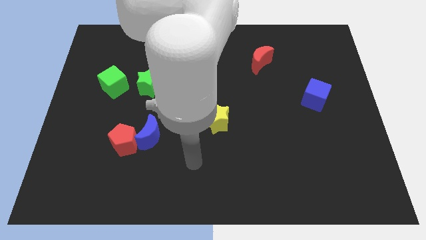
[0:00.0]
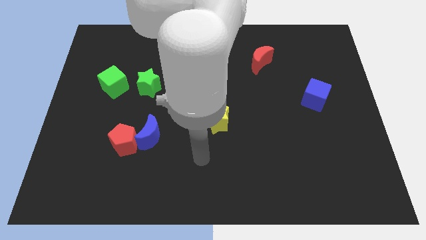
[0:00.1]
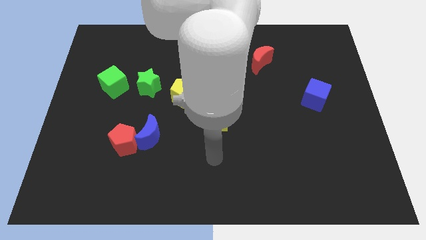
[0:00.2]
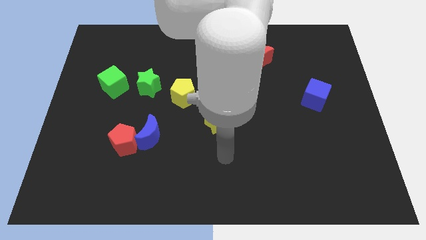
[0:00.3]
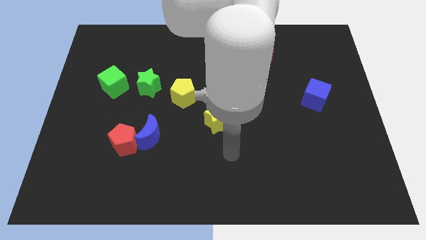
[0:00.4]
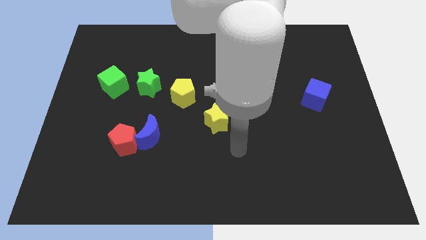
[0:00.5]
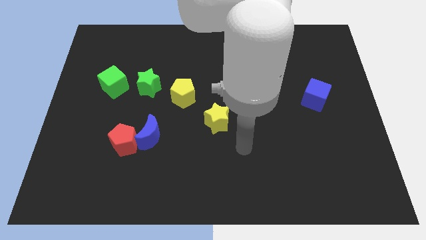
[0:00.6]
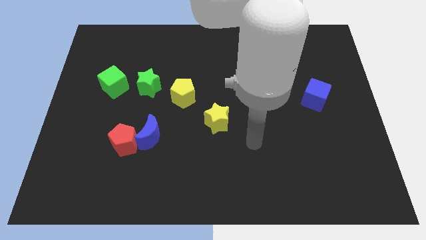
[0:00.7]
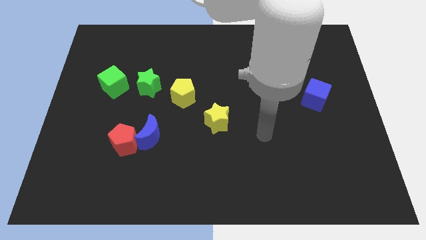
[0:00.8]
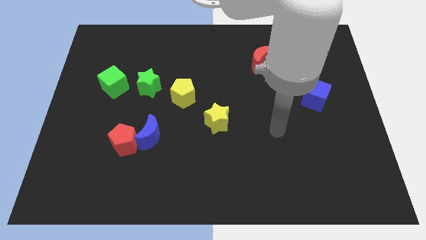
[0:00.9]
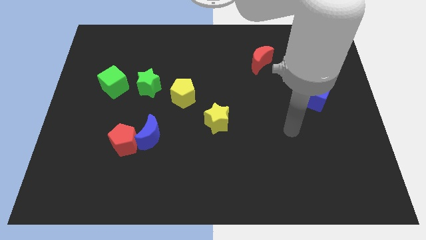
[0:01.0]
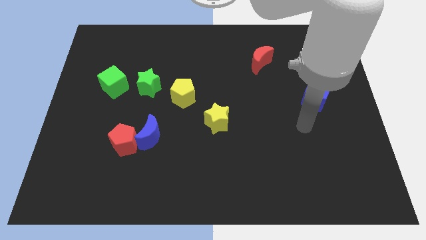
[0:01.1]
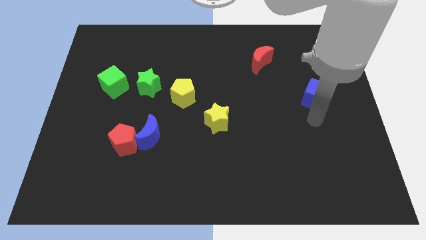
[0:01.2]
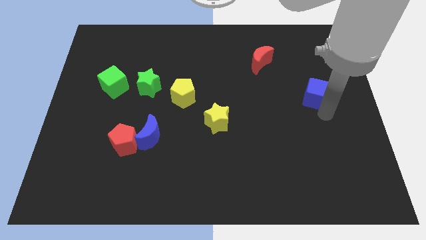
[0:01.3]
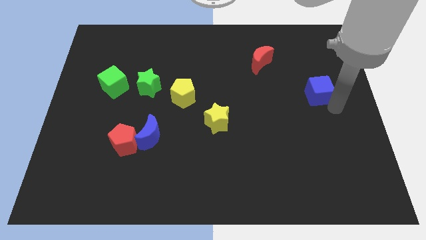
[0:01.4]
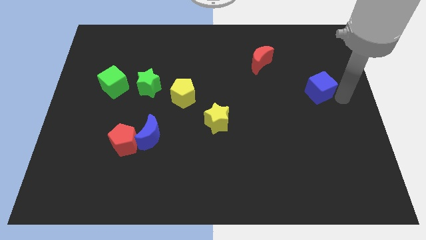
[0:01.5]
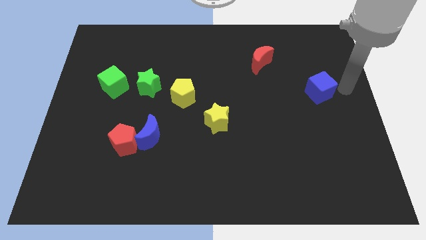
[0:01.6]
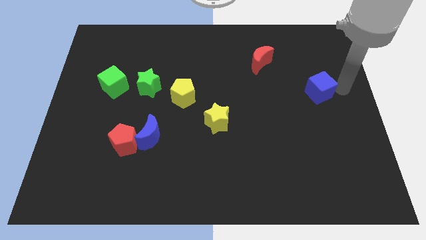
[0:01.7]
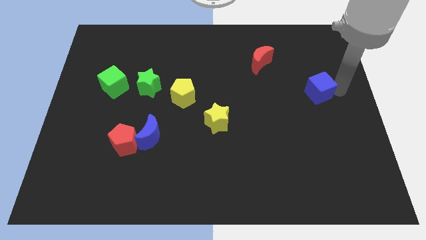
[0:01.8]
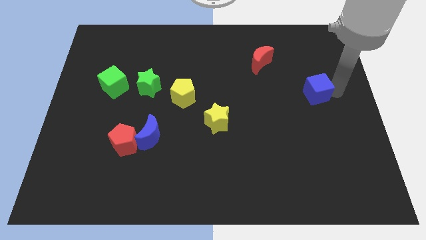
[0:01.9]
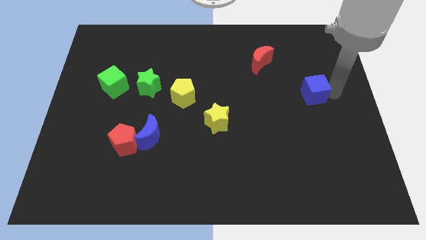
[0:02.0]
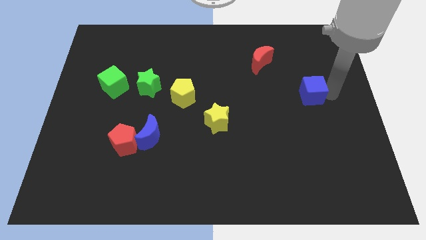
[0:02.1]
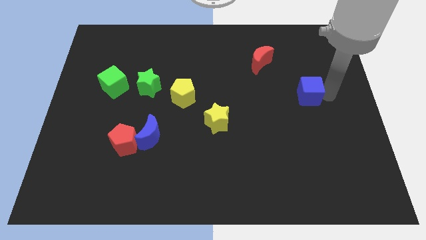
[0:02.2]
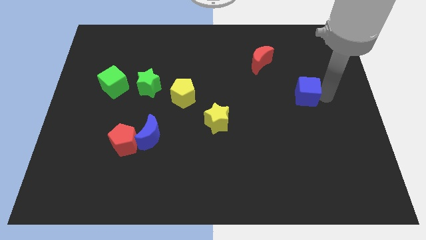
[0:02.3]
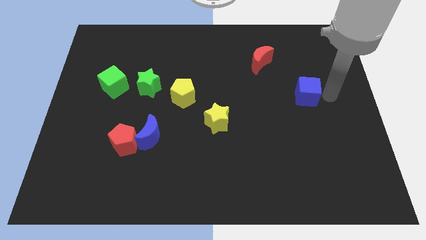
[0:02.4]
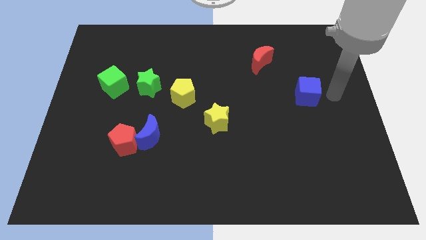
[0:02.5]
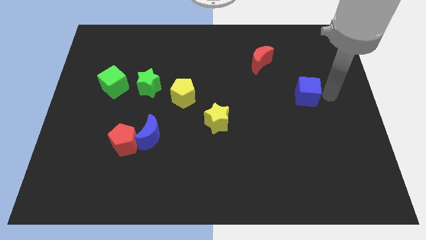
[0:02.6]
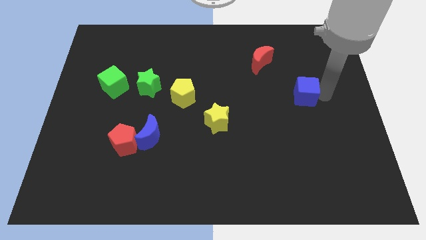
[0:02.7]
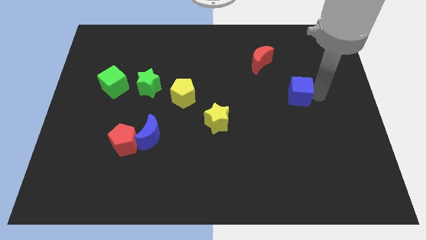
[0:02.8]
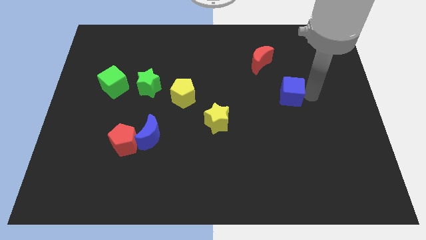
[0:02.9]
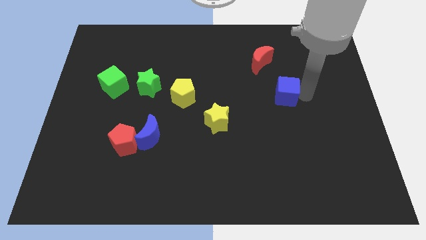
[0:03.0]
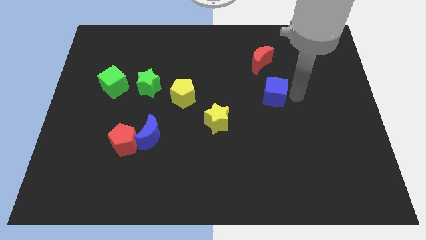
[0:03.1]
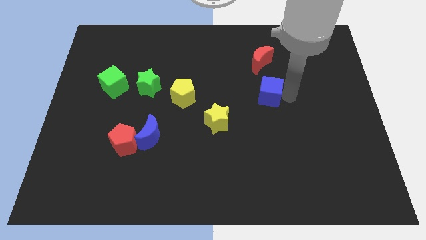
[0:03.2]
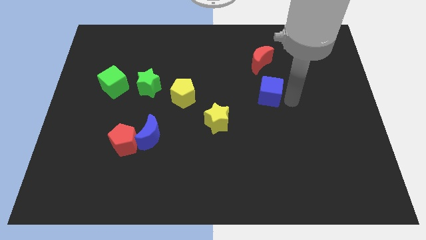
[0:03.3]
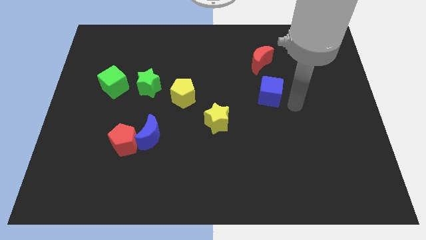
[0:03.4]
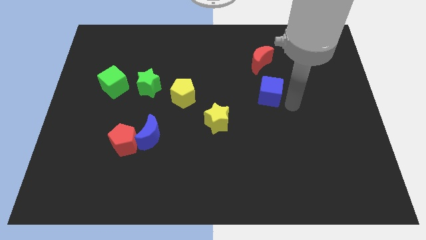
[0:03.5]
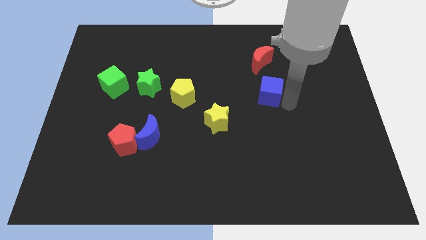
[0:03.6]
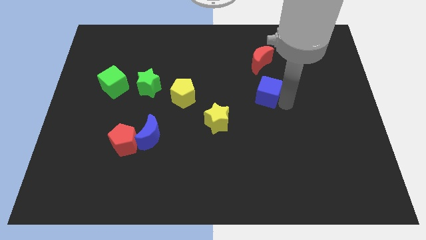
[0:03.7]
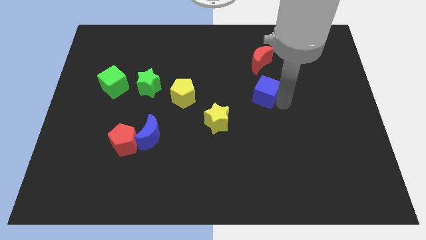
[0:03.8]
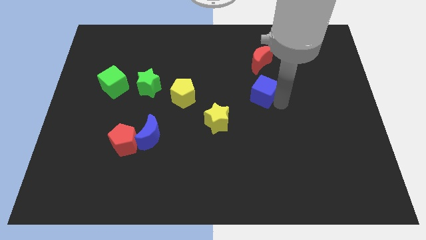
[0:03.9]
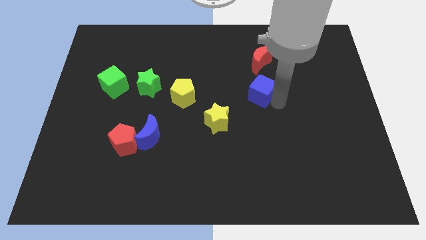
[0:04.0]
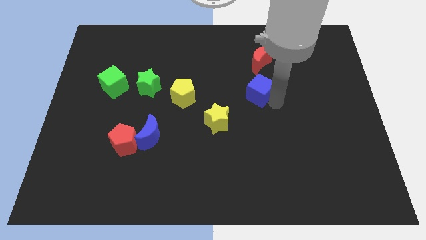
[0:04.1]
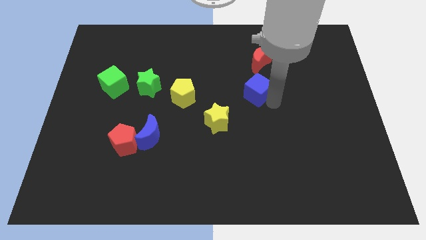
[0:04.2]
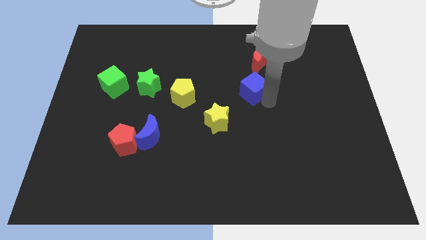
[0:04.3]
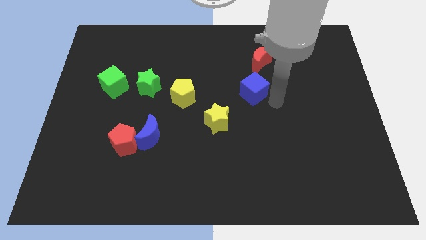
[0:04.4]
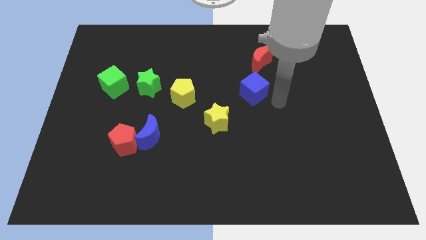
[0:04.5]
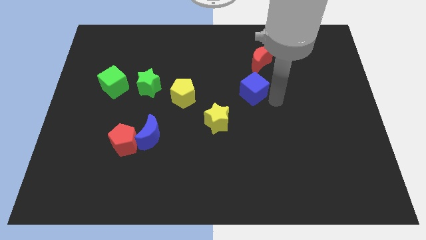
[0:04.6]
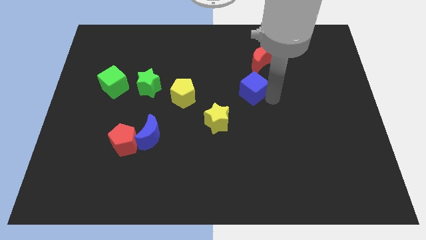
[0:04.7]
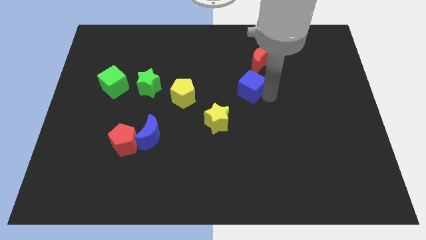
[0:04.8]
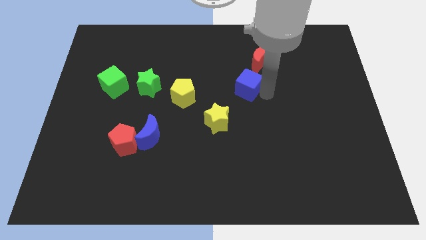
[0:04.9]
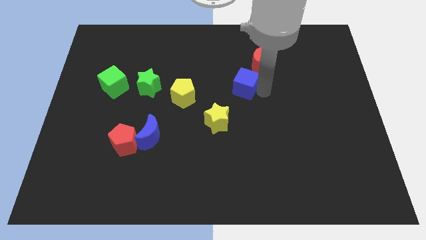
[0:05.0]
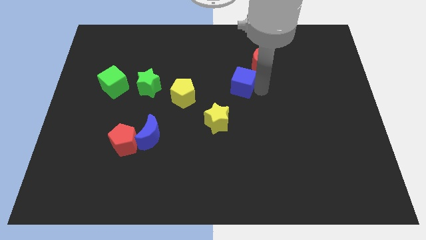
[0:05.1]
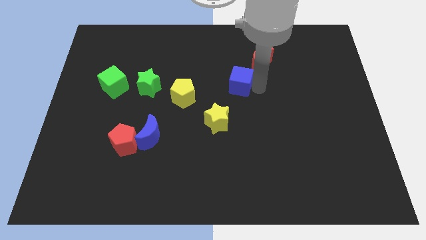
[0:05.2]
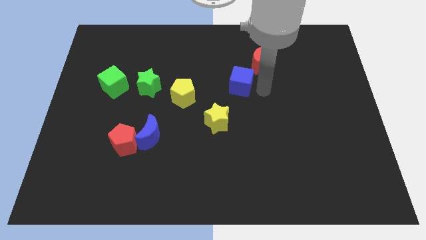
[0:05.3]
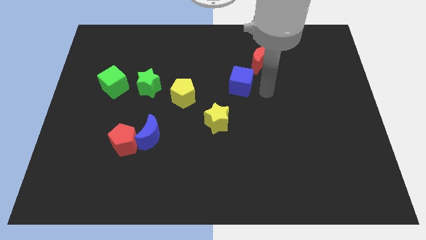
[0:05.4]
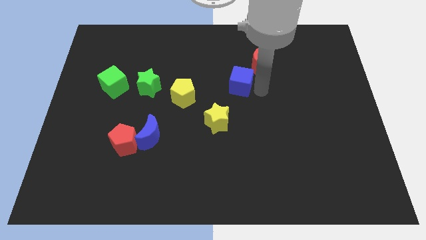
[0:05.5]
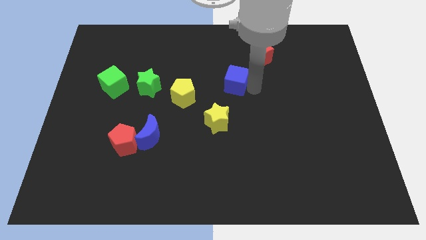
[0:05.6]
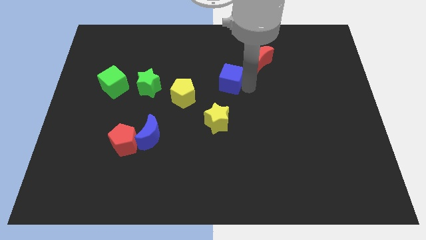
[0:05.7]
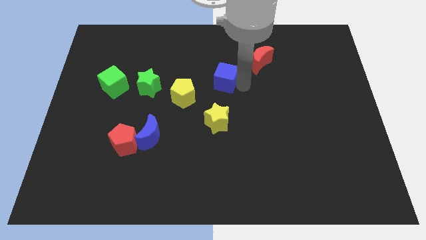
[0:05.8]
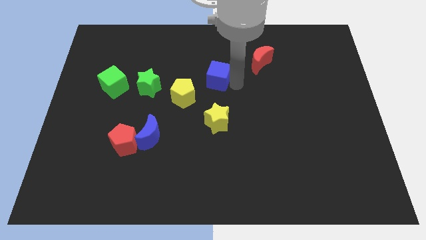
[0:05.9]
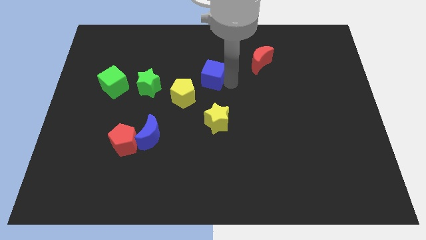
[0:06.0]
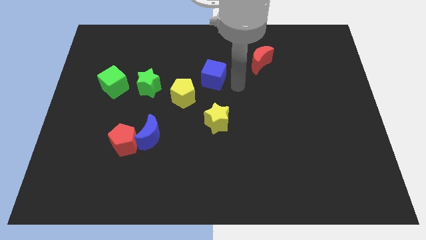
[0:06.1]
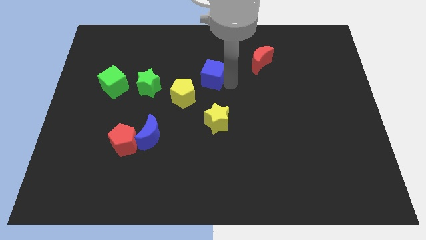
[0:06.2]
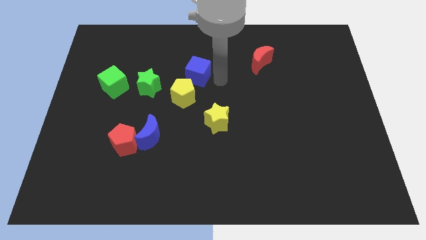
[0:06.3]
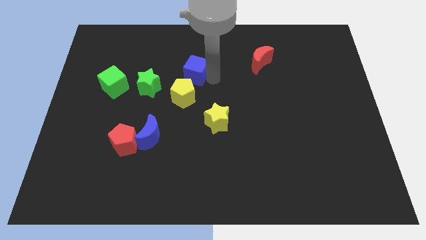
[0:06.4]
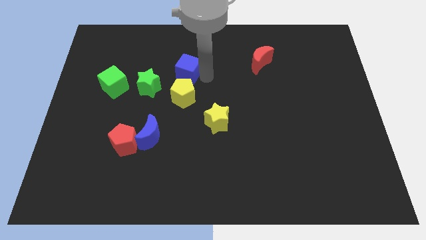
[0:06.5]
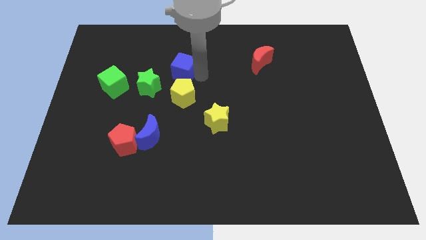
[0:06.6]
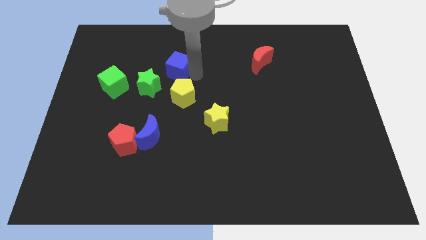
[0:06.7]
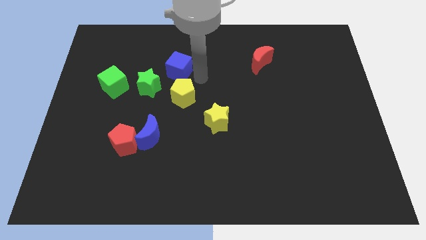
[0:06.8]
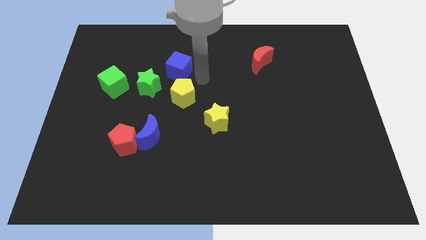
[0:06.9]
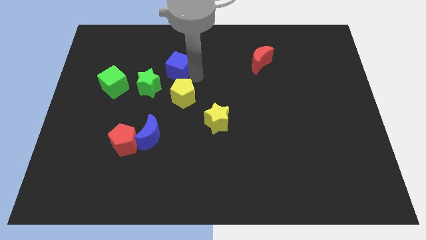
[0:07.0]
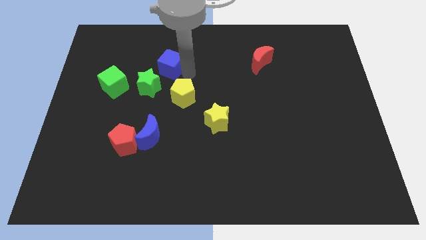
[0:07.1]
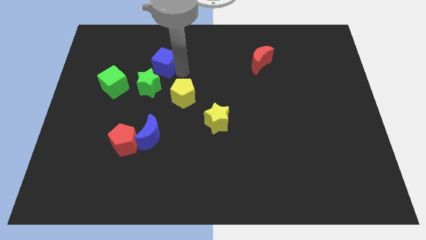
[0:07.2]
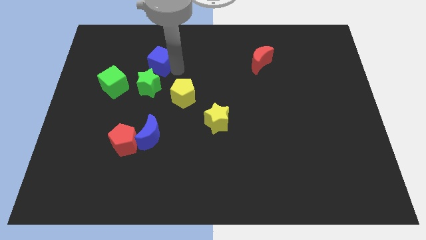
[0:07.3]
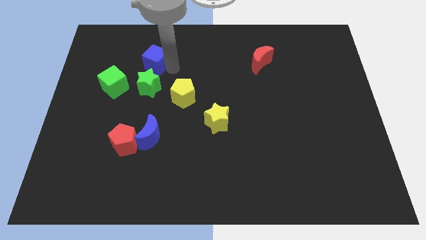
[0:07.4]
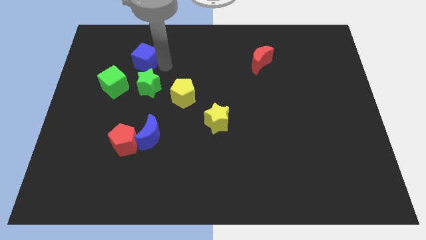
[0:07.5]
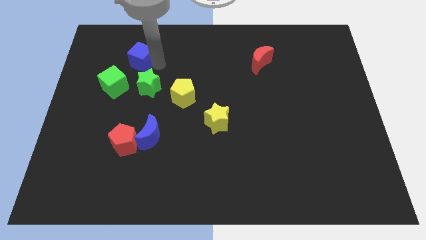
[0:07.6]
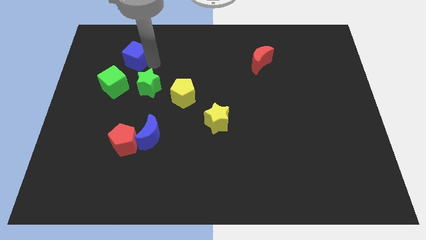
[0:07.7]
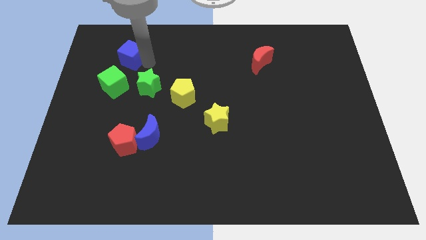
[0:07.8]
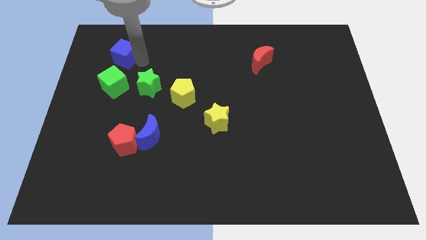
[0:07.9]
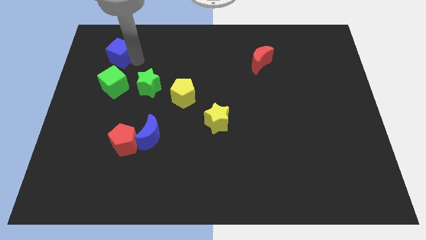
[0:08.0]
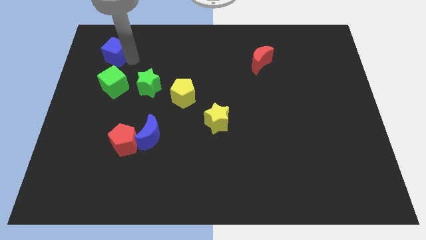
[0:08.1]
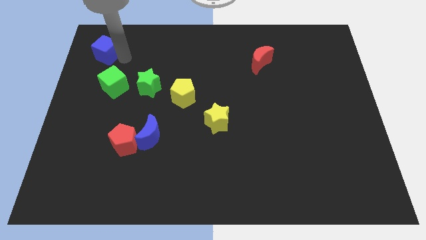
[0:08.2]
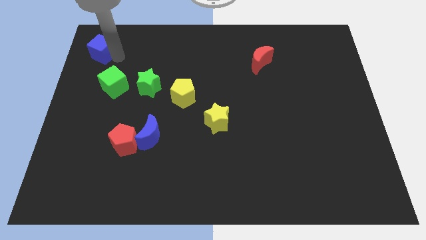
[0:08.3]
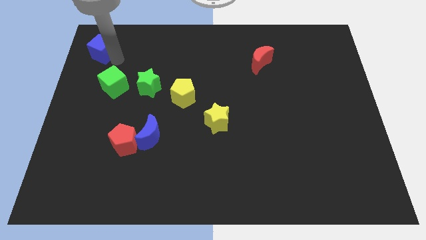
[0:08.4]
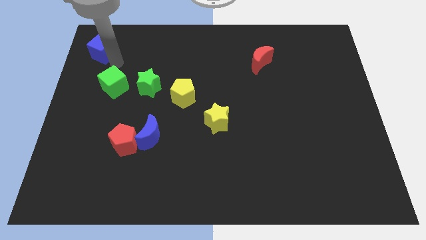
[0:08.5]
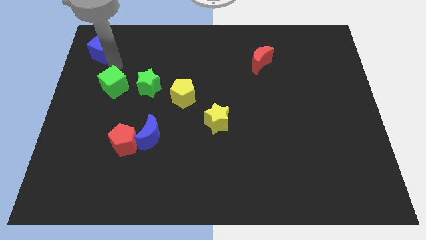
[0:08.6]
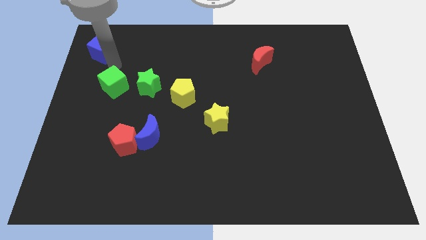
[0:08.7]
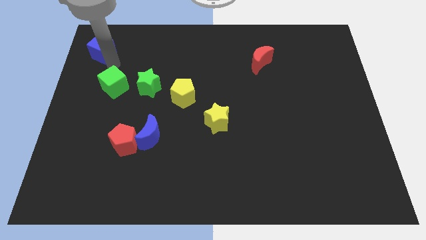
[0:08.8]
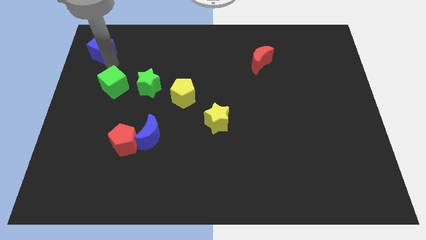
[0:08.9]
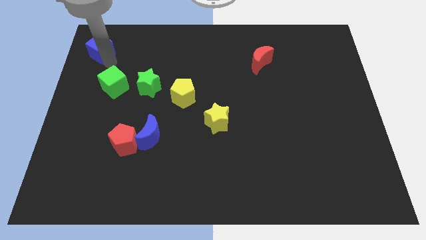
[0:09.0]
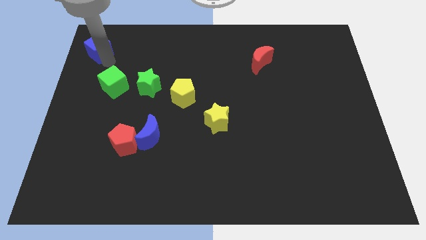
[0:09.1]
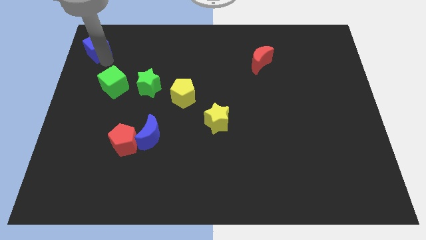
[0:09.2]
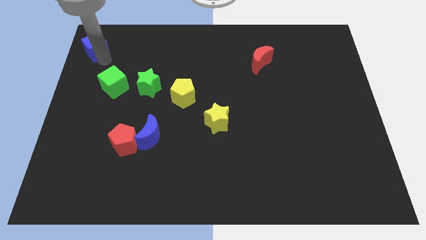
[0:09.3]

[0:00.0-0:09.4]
slide the blue cube to the top left
